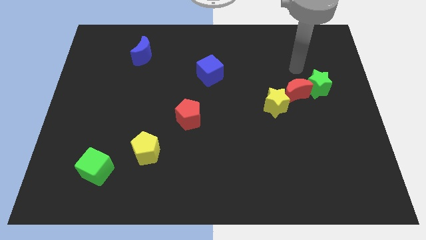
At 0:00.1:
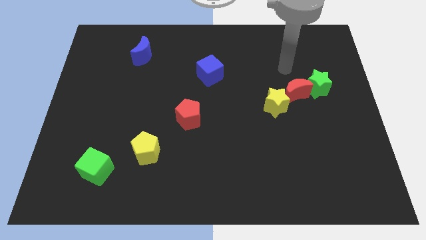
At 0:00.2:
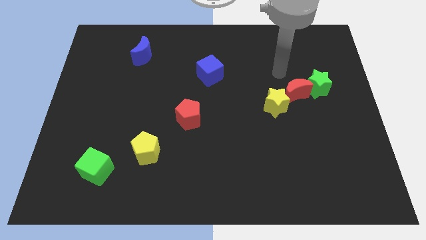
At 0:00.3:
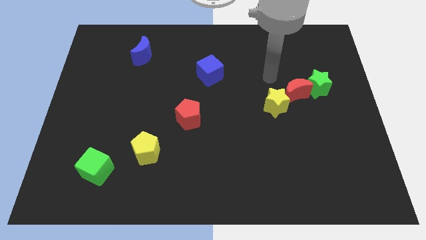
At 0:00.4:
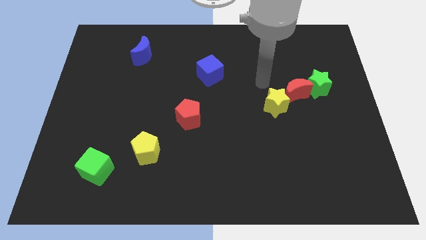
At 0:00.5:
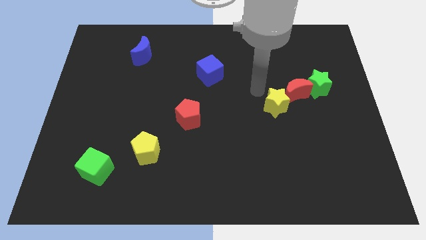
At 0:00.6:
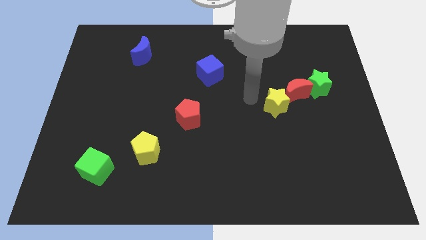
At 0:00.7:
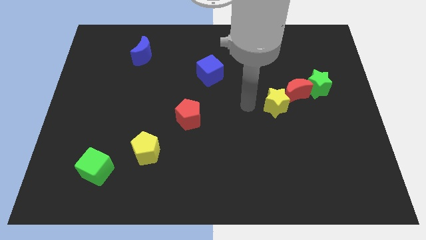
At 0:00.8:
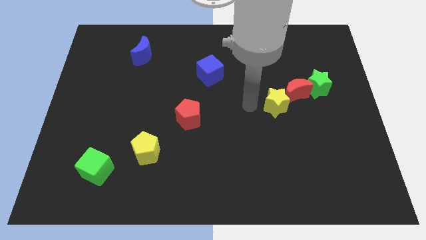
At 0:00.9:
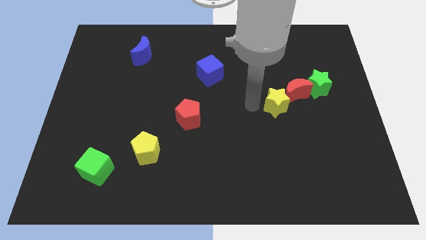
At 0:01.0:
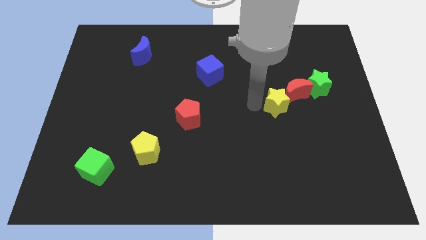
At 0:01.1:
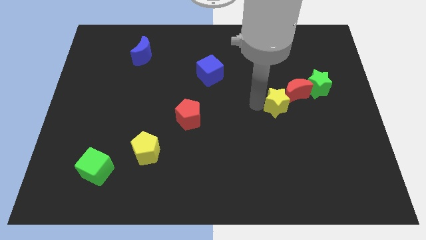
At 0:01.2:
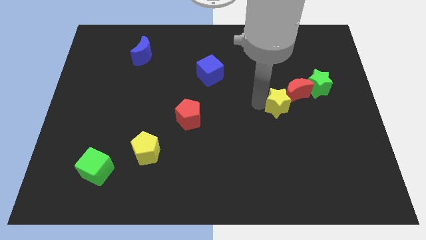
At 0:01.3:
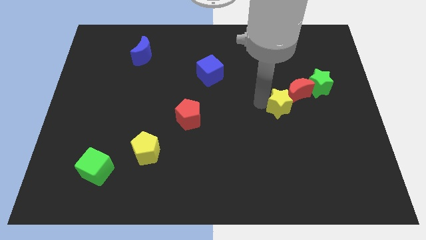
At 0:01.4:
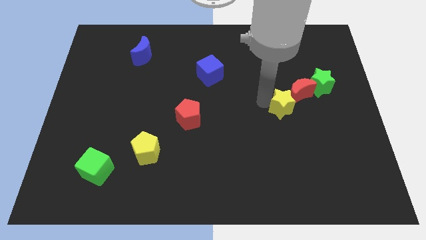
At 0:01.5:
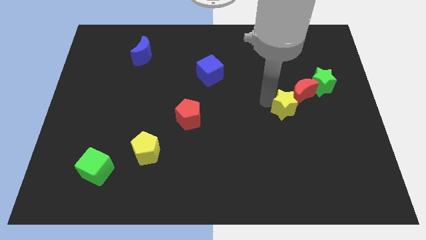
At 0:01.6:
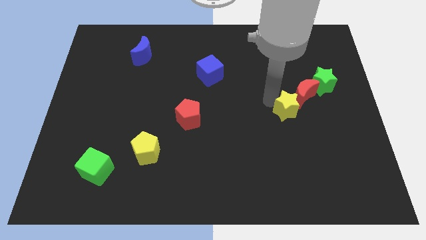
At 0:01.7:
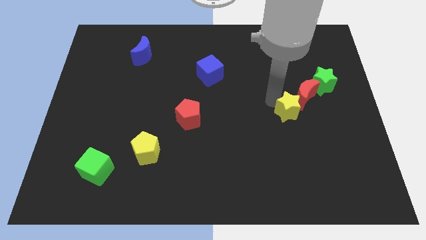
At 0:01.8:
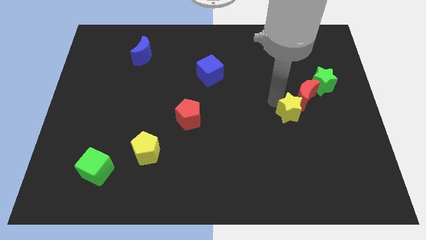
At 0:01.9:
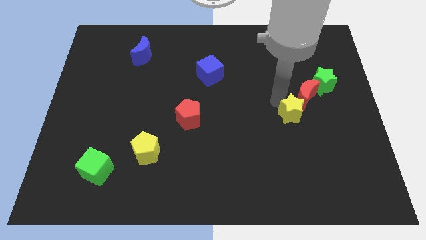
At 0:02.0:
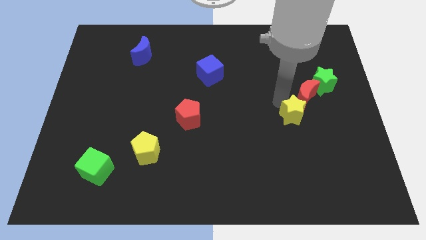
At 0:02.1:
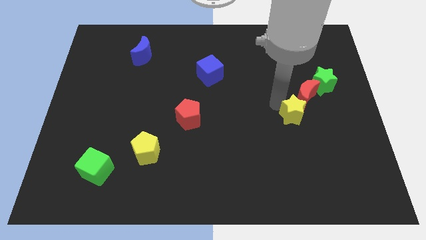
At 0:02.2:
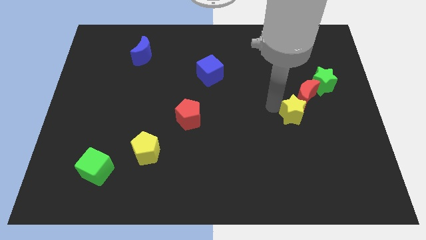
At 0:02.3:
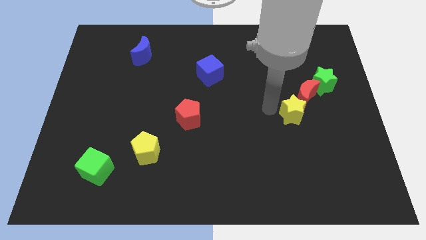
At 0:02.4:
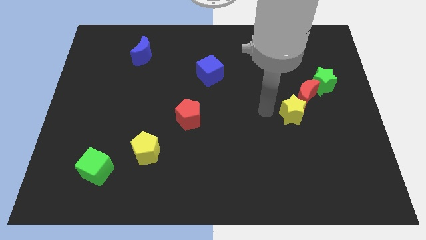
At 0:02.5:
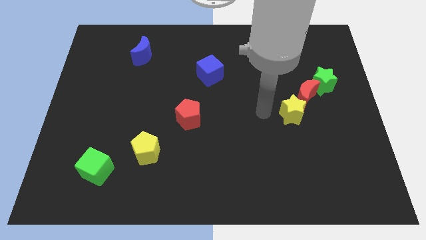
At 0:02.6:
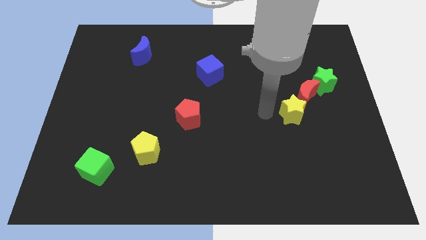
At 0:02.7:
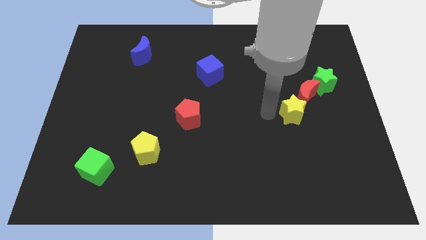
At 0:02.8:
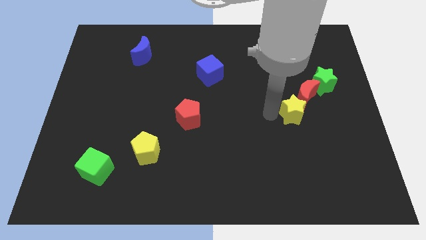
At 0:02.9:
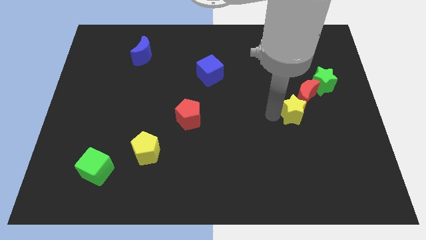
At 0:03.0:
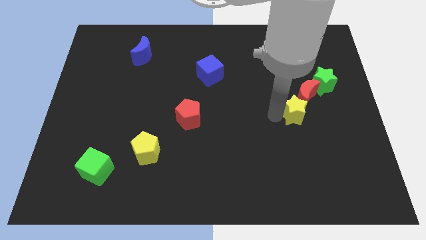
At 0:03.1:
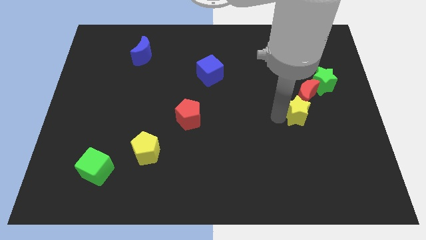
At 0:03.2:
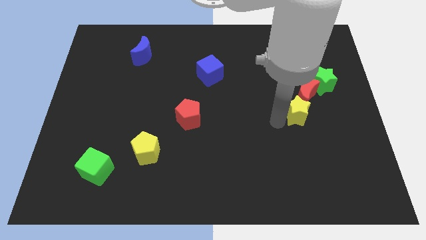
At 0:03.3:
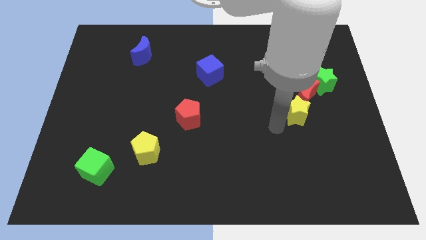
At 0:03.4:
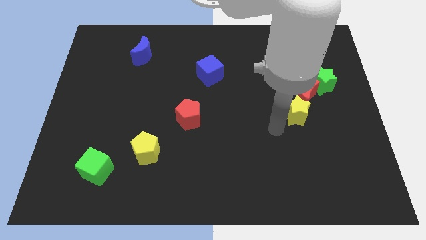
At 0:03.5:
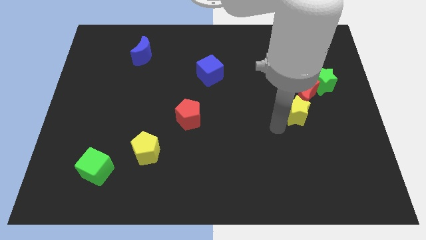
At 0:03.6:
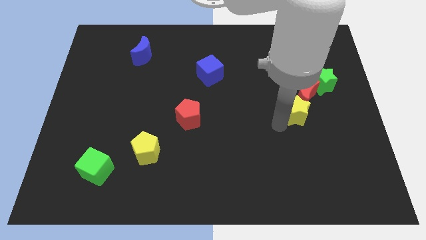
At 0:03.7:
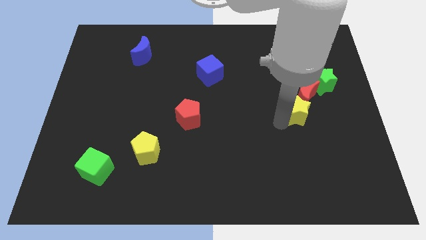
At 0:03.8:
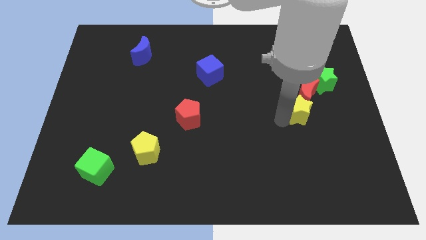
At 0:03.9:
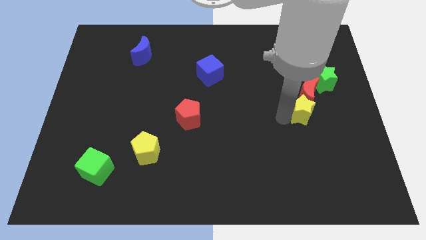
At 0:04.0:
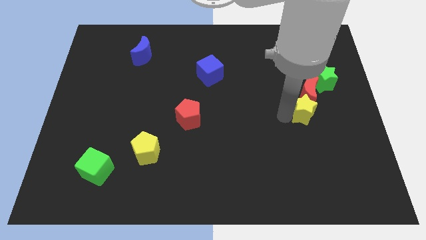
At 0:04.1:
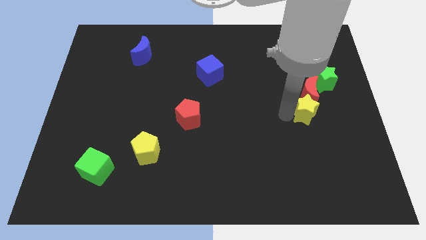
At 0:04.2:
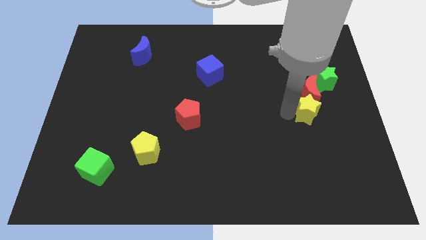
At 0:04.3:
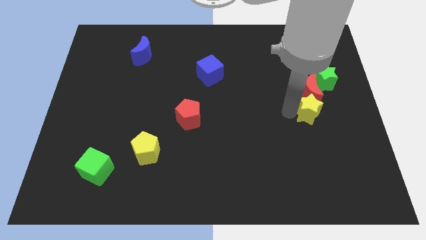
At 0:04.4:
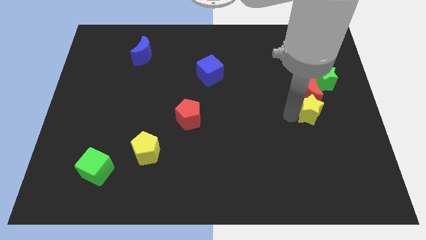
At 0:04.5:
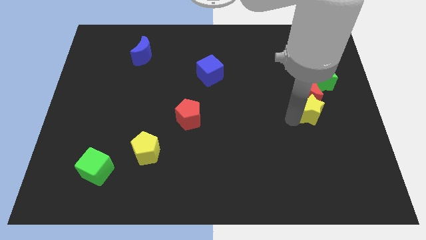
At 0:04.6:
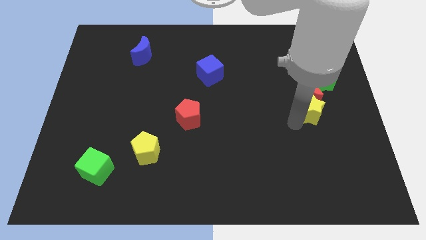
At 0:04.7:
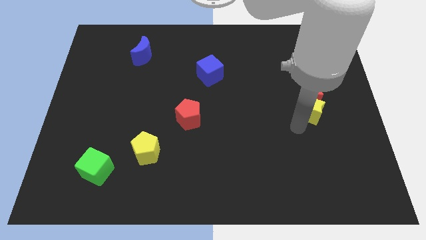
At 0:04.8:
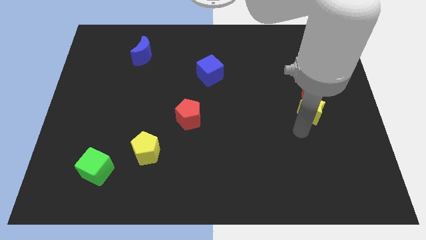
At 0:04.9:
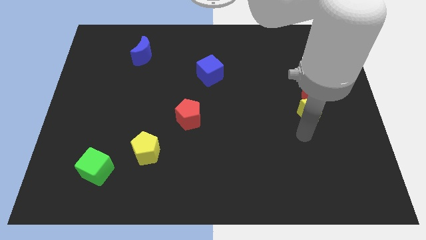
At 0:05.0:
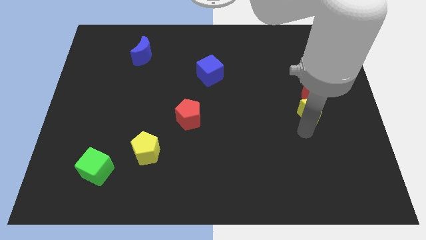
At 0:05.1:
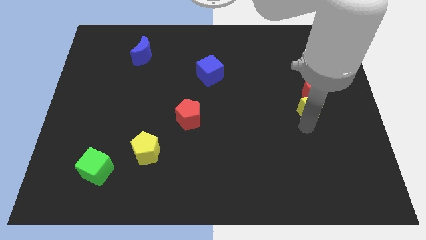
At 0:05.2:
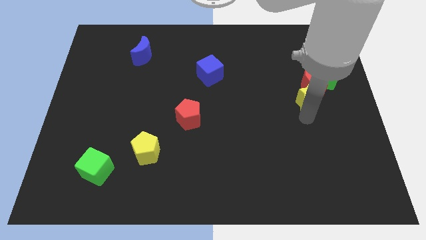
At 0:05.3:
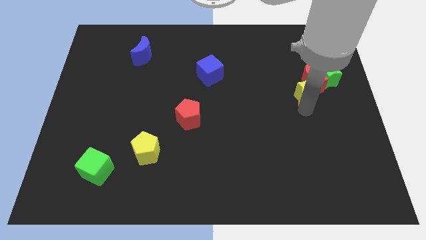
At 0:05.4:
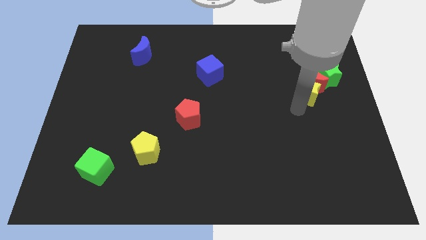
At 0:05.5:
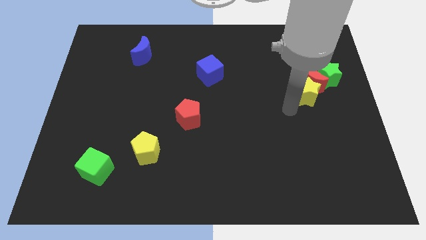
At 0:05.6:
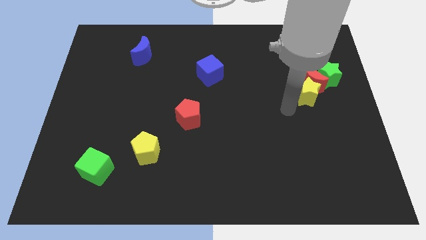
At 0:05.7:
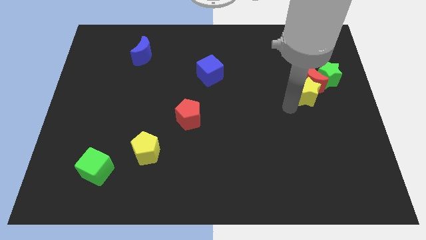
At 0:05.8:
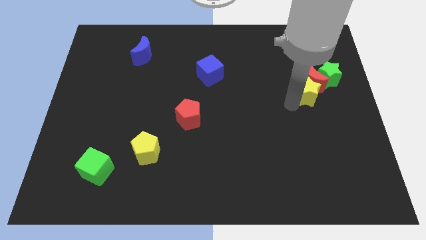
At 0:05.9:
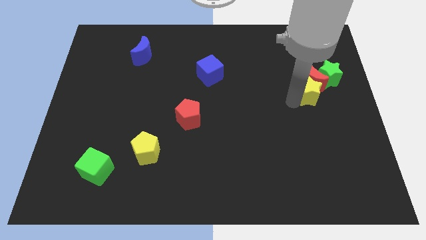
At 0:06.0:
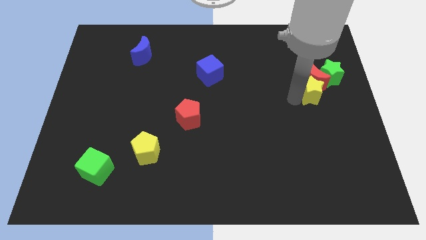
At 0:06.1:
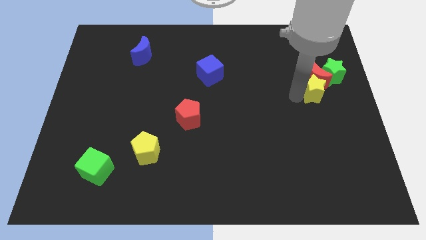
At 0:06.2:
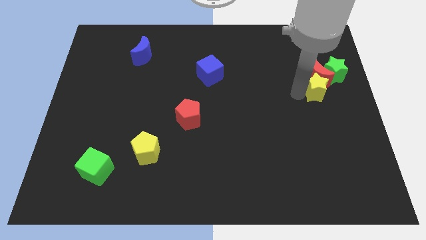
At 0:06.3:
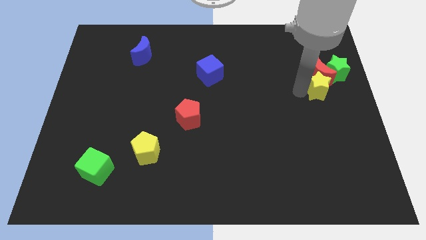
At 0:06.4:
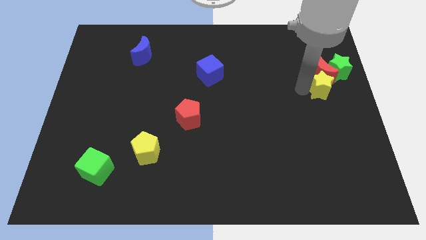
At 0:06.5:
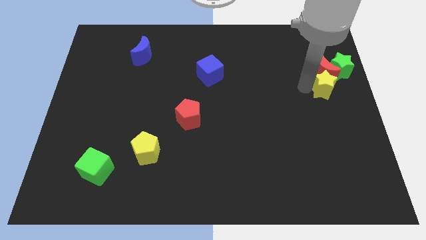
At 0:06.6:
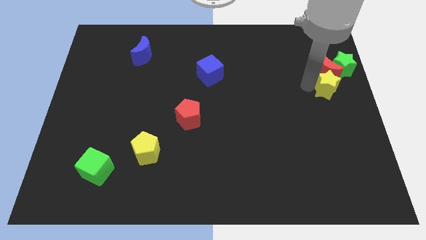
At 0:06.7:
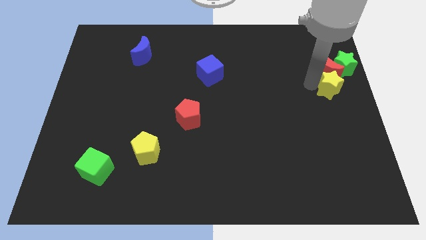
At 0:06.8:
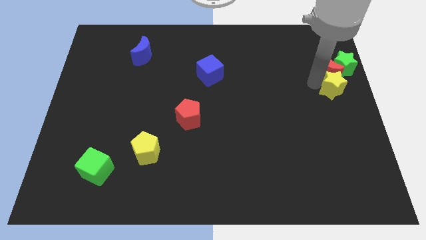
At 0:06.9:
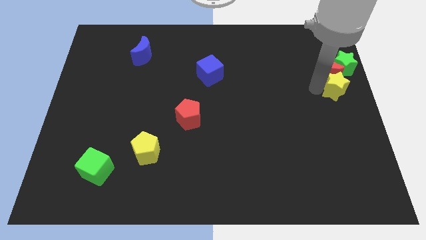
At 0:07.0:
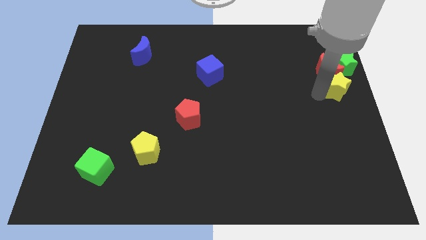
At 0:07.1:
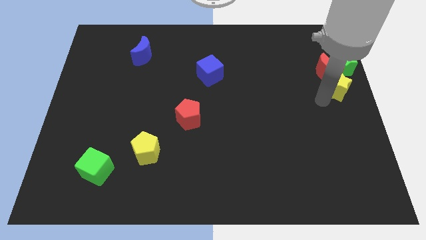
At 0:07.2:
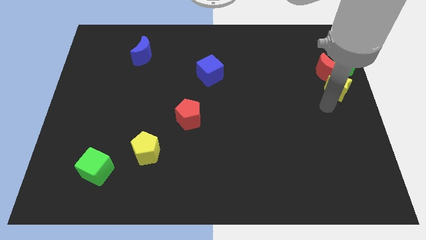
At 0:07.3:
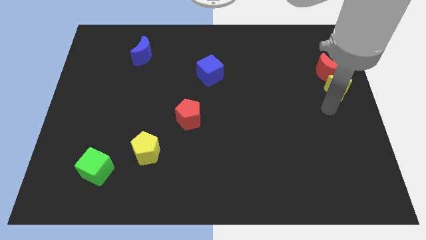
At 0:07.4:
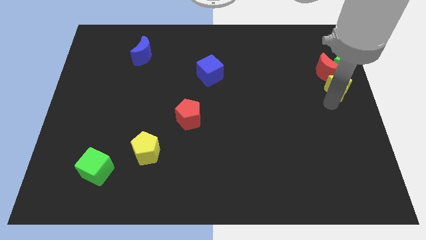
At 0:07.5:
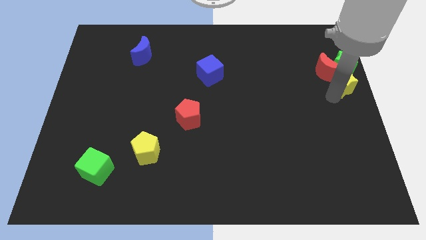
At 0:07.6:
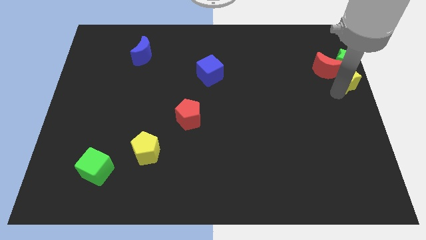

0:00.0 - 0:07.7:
move the yellow star to the green star
